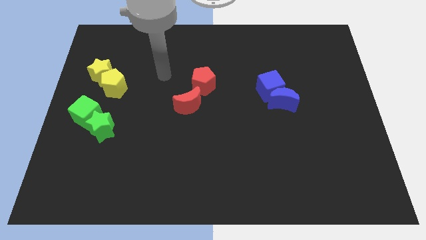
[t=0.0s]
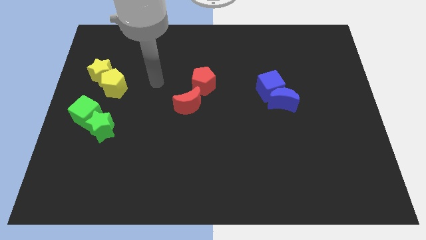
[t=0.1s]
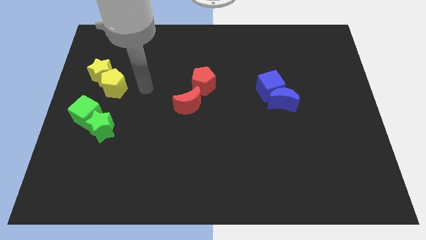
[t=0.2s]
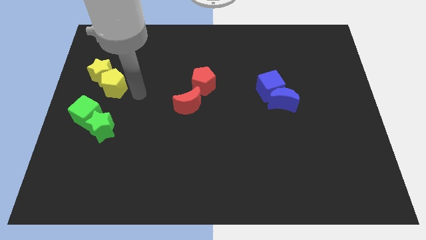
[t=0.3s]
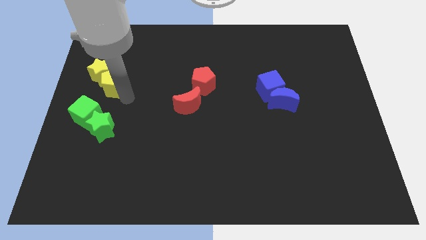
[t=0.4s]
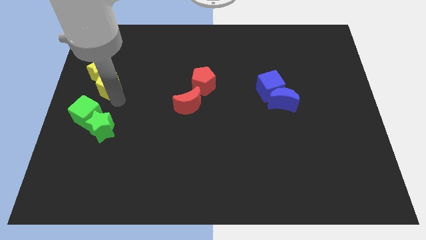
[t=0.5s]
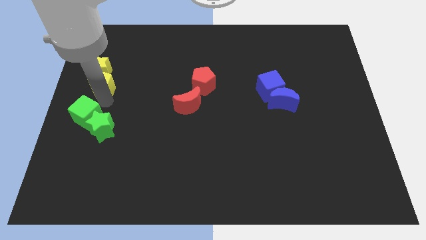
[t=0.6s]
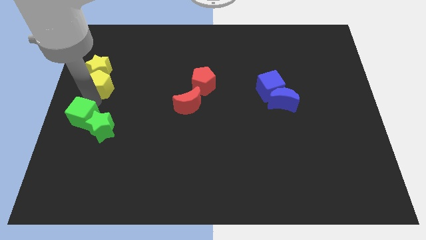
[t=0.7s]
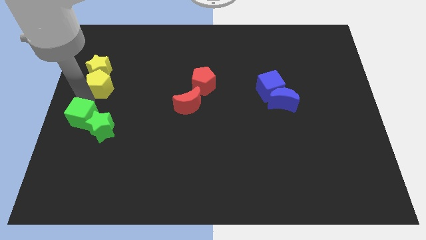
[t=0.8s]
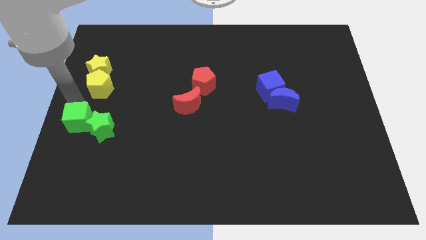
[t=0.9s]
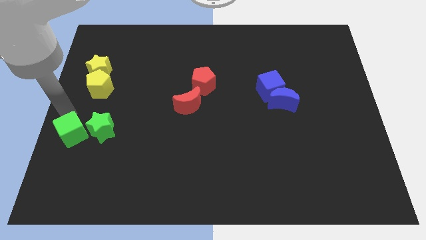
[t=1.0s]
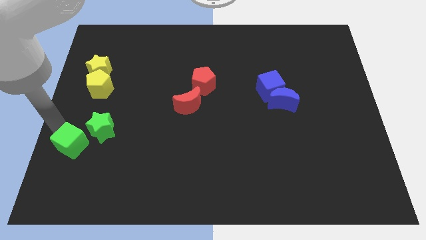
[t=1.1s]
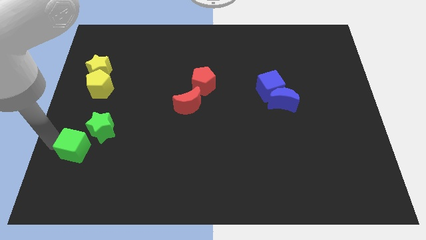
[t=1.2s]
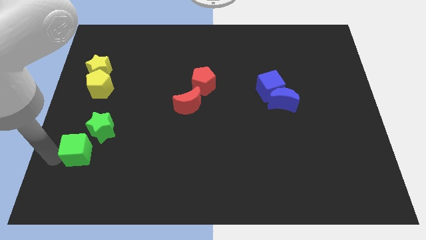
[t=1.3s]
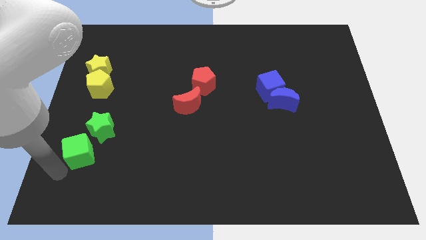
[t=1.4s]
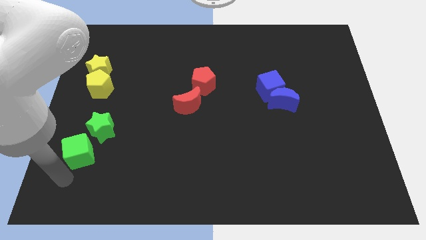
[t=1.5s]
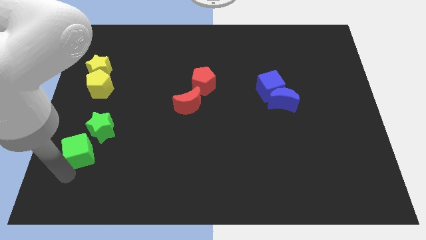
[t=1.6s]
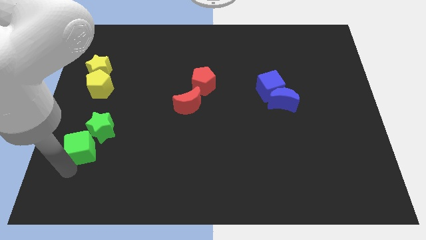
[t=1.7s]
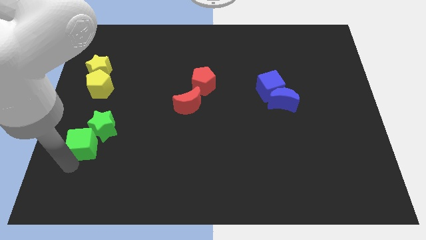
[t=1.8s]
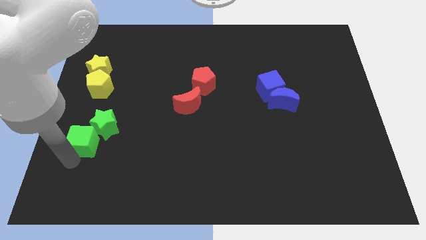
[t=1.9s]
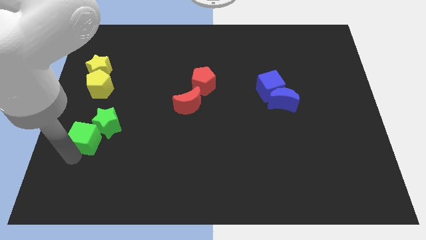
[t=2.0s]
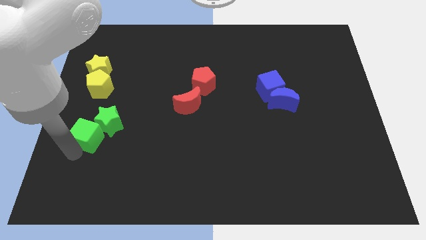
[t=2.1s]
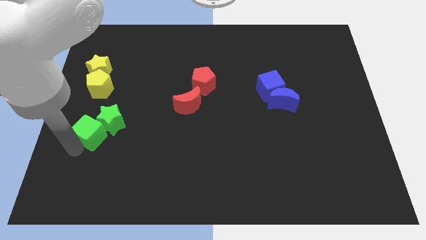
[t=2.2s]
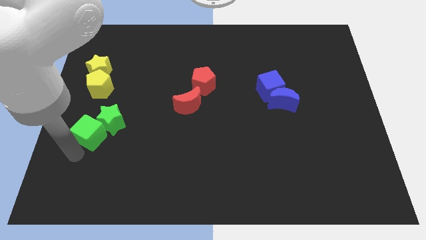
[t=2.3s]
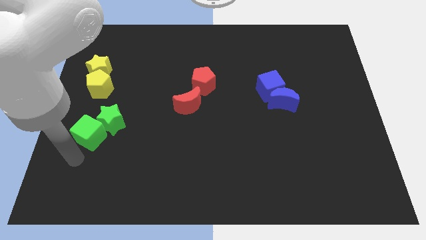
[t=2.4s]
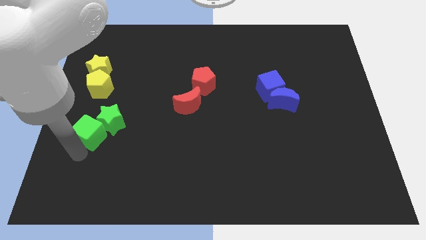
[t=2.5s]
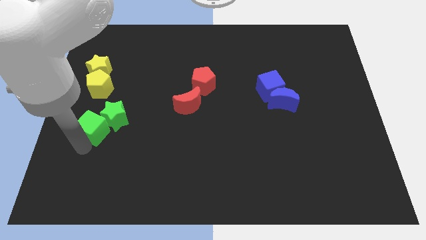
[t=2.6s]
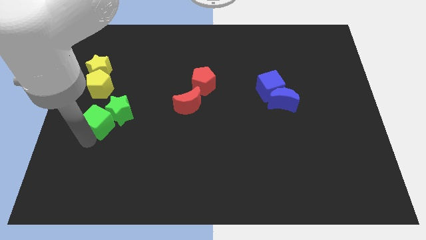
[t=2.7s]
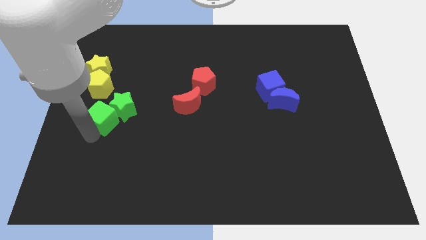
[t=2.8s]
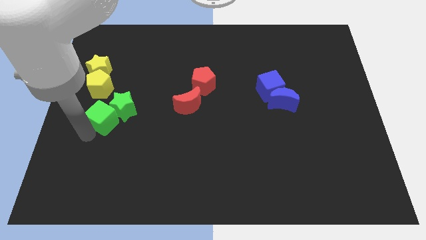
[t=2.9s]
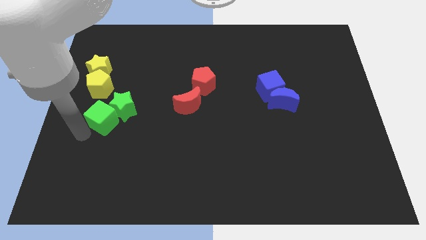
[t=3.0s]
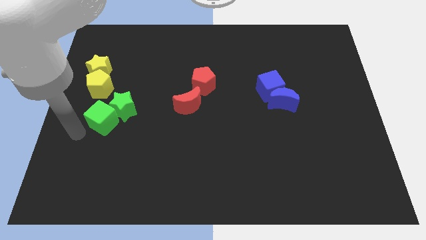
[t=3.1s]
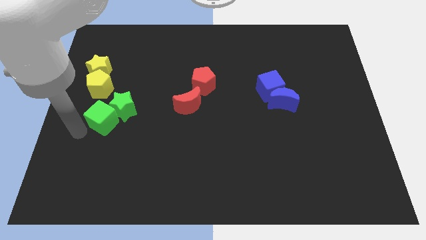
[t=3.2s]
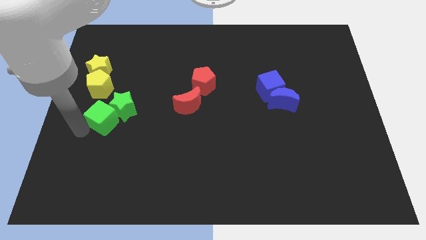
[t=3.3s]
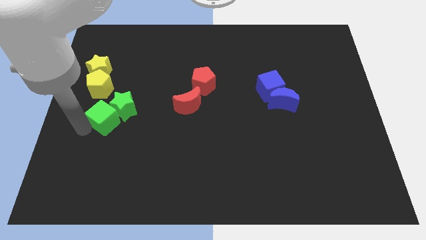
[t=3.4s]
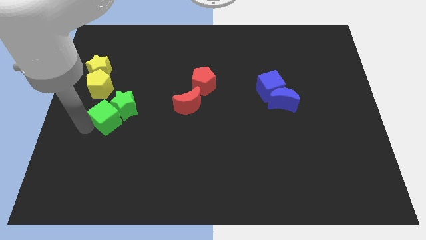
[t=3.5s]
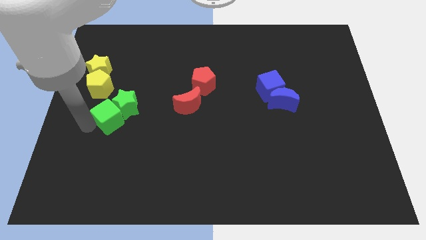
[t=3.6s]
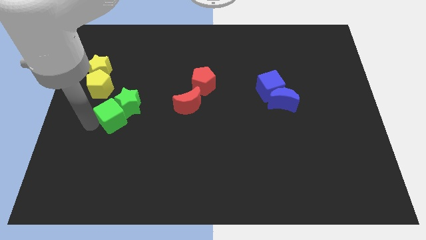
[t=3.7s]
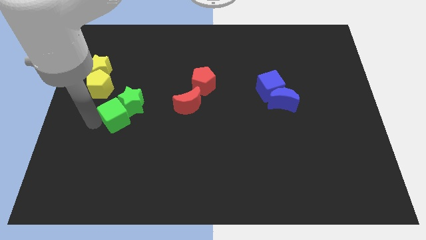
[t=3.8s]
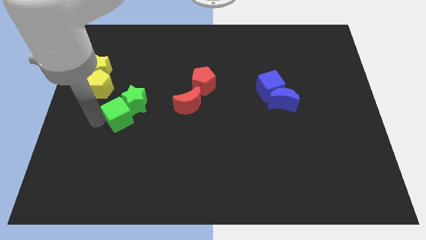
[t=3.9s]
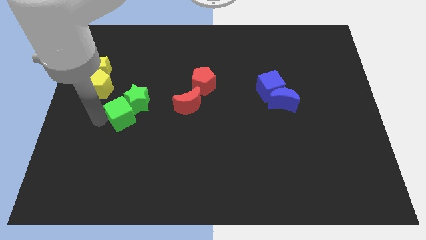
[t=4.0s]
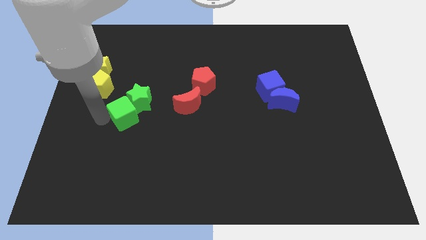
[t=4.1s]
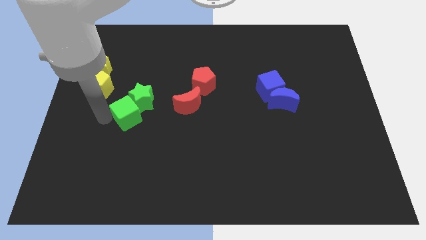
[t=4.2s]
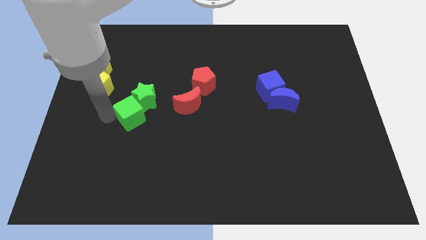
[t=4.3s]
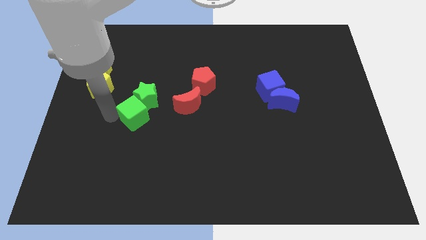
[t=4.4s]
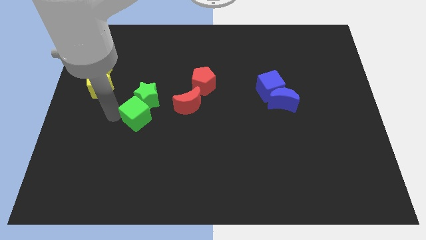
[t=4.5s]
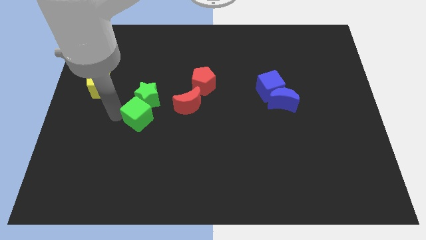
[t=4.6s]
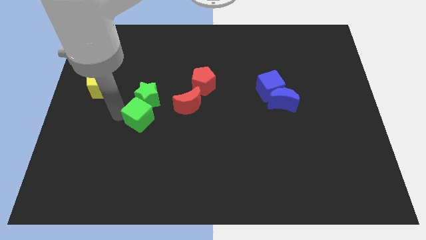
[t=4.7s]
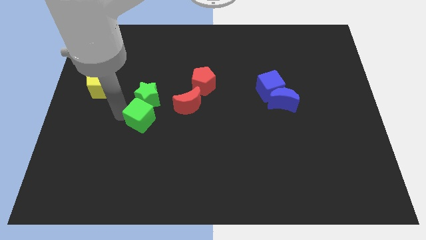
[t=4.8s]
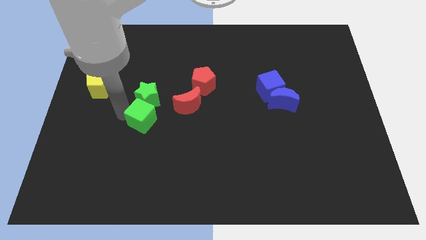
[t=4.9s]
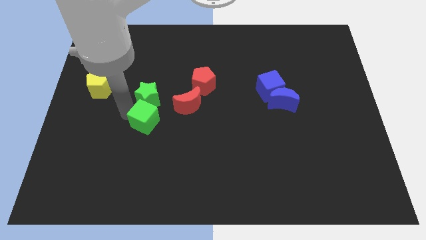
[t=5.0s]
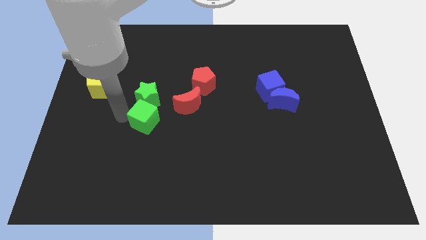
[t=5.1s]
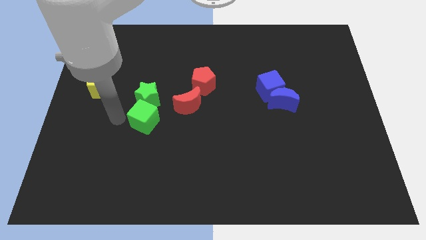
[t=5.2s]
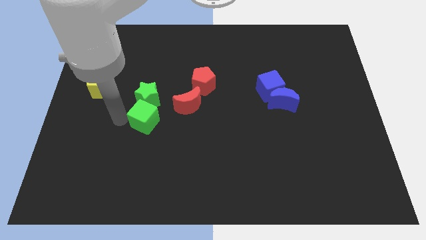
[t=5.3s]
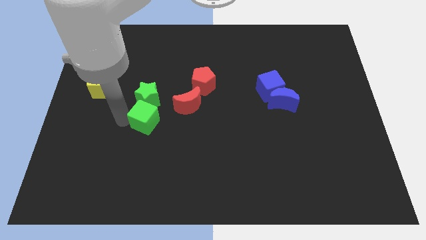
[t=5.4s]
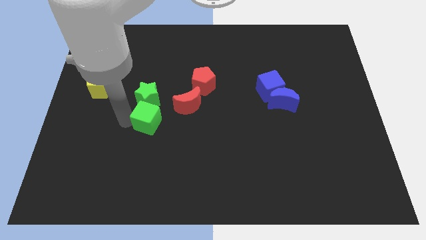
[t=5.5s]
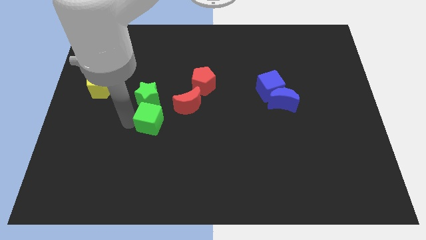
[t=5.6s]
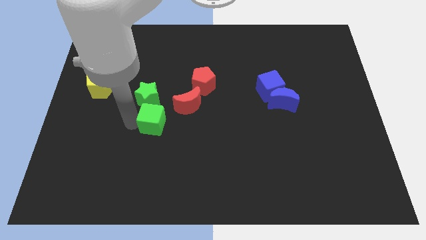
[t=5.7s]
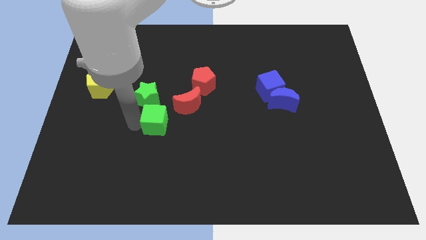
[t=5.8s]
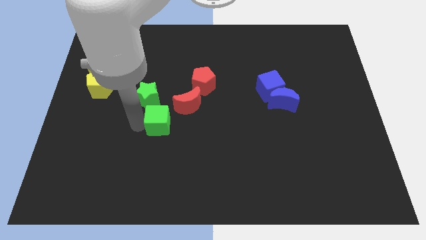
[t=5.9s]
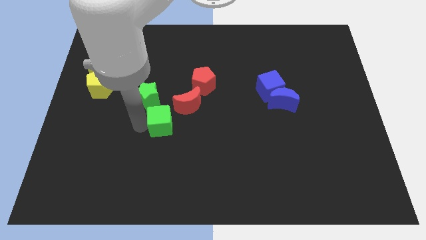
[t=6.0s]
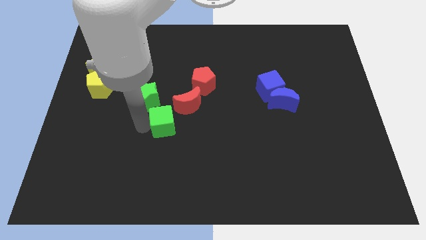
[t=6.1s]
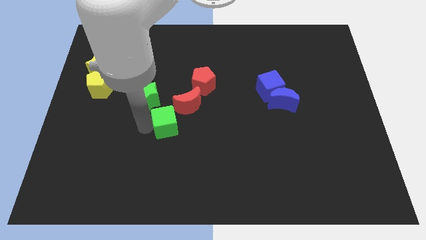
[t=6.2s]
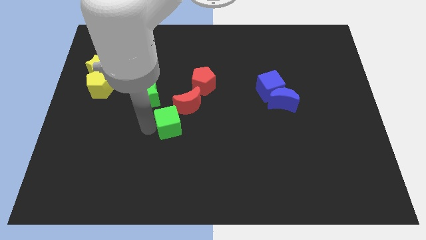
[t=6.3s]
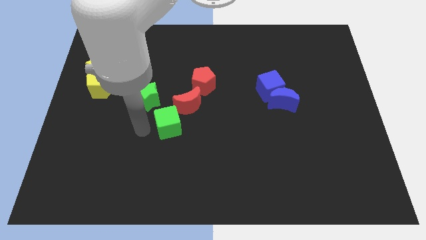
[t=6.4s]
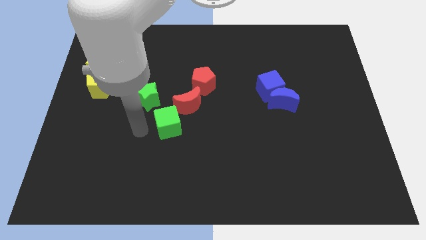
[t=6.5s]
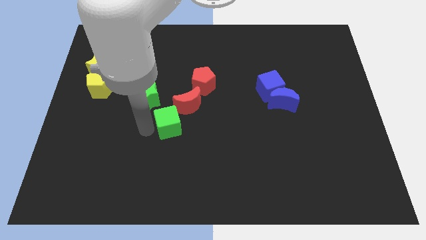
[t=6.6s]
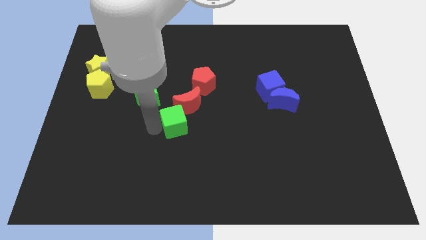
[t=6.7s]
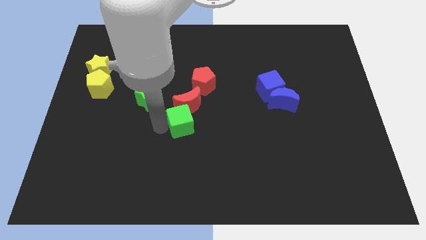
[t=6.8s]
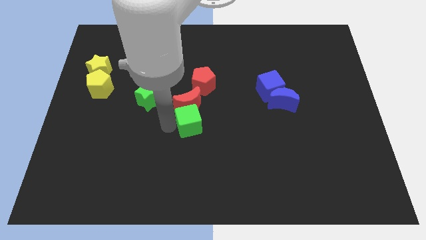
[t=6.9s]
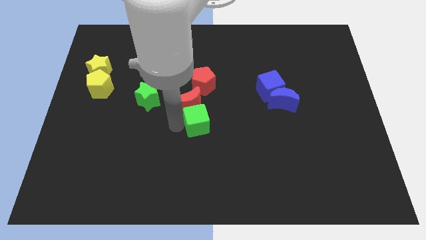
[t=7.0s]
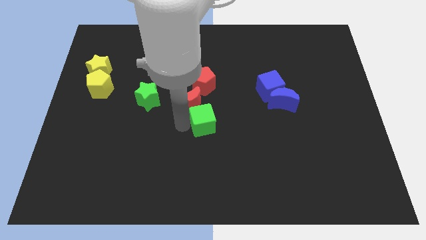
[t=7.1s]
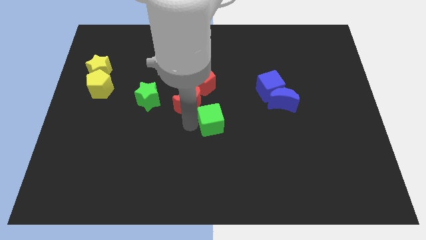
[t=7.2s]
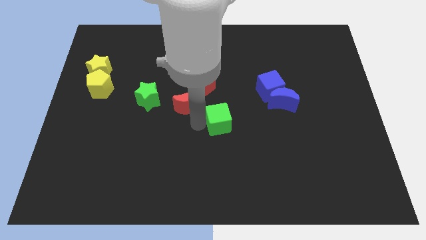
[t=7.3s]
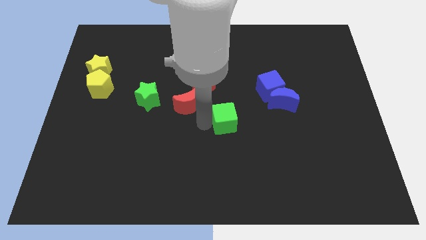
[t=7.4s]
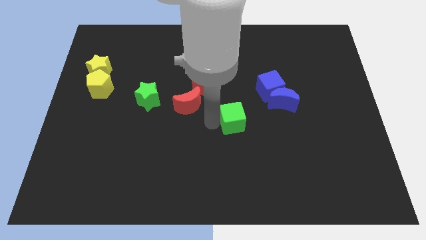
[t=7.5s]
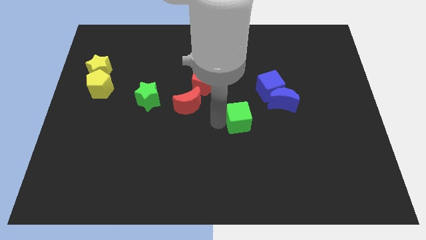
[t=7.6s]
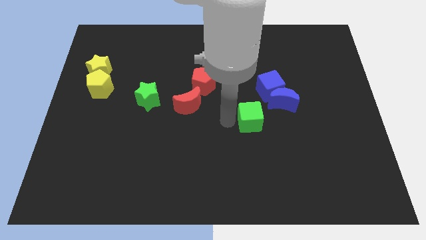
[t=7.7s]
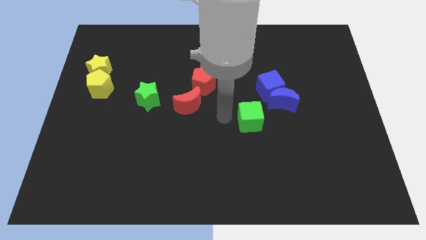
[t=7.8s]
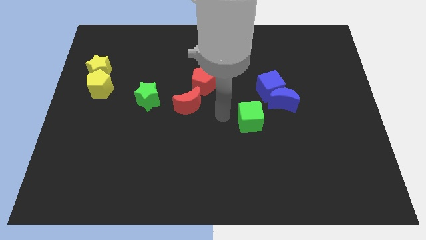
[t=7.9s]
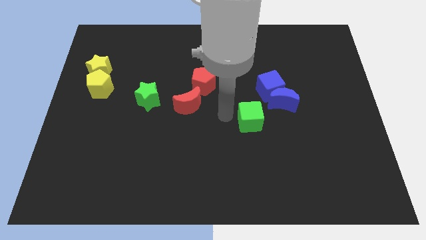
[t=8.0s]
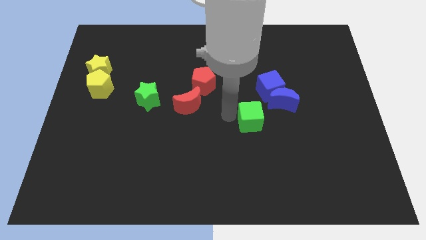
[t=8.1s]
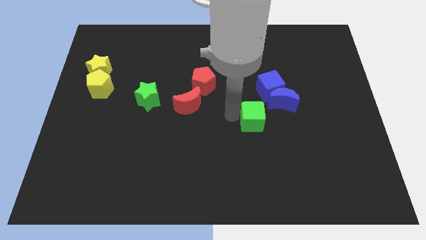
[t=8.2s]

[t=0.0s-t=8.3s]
slide the green cube to the bottom side of the blue cube
